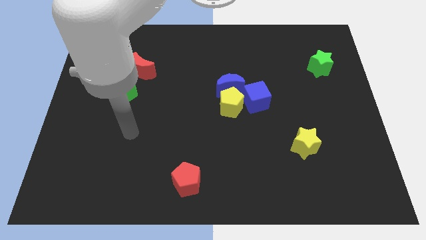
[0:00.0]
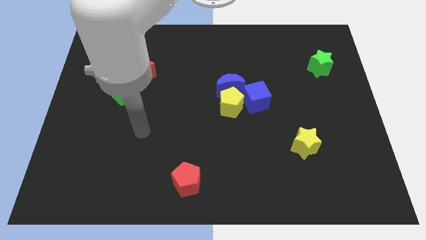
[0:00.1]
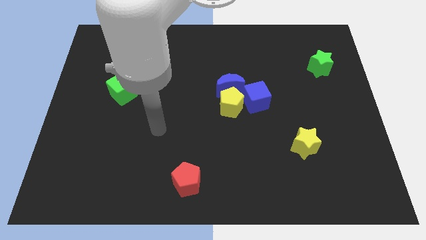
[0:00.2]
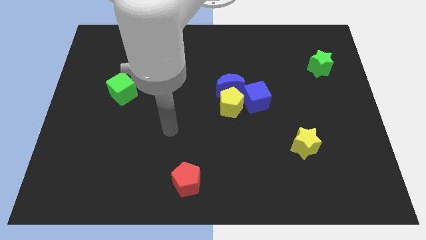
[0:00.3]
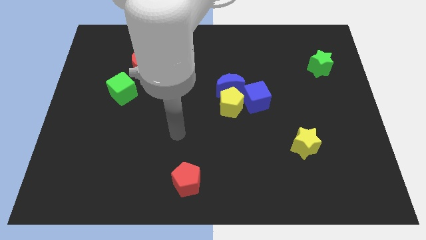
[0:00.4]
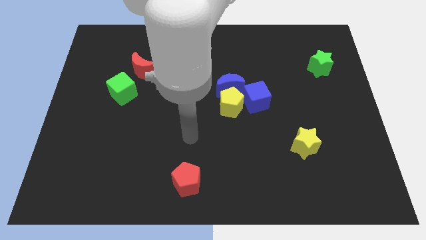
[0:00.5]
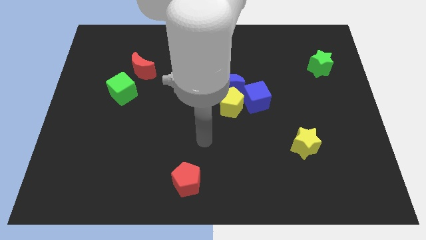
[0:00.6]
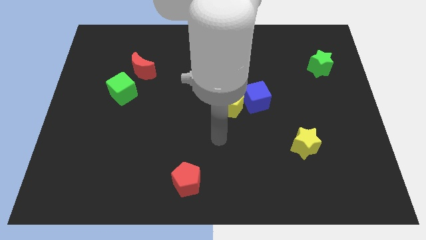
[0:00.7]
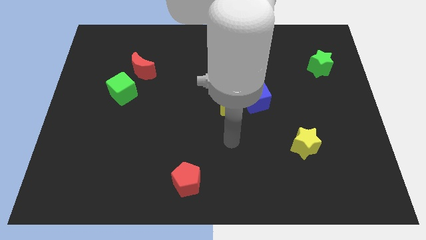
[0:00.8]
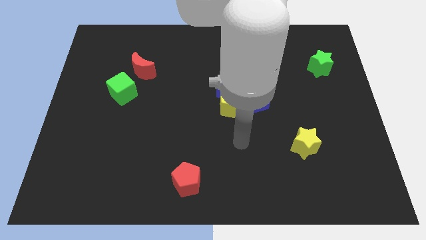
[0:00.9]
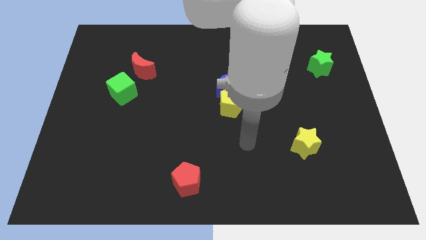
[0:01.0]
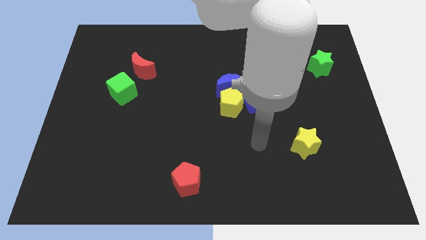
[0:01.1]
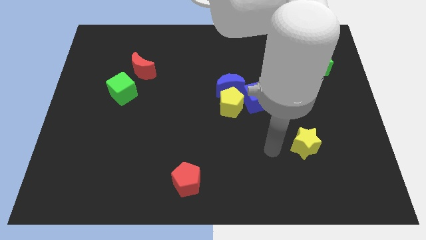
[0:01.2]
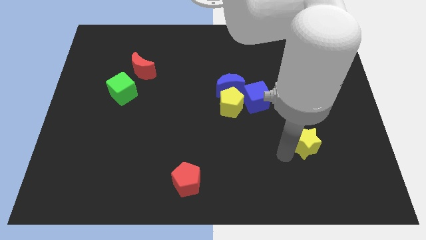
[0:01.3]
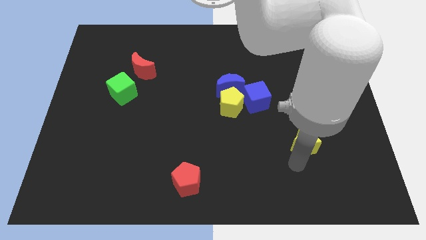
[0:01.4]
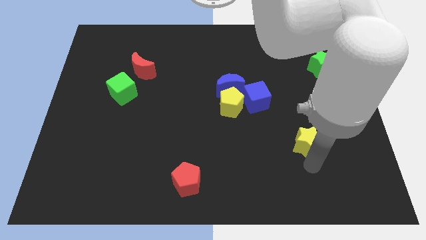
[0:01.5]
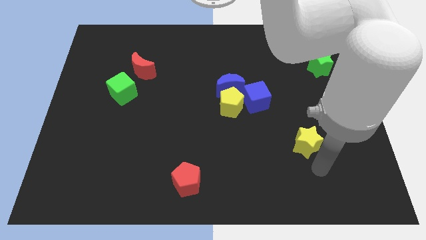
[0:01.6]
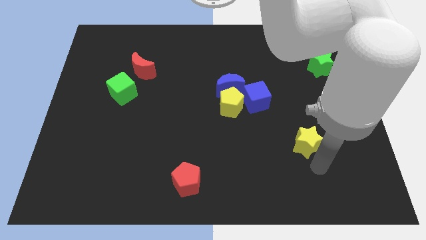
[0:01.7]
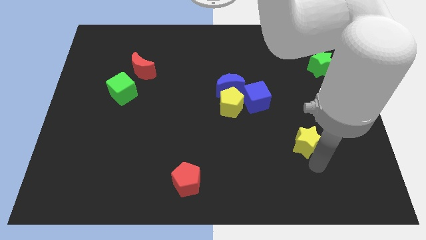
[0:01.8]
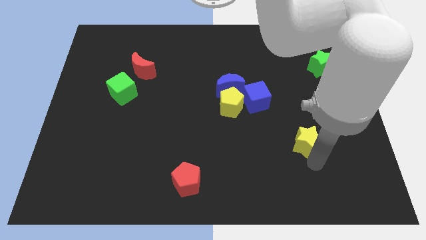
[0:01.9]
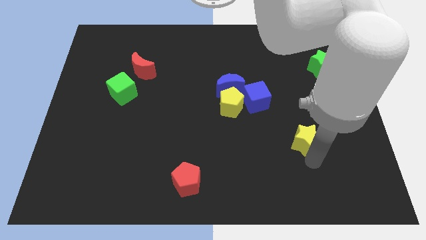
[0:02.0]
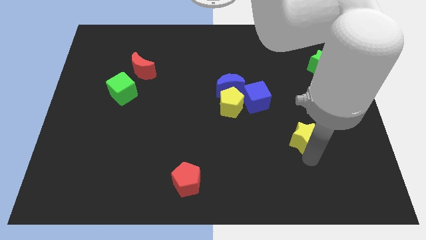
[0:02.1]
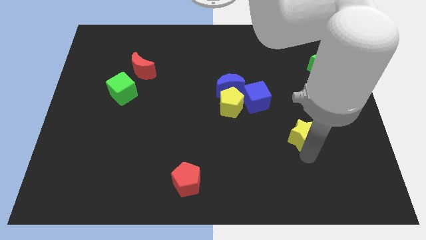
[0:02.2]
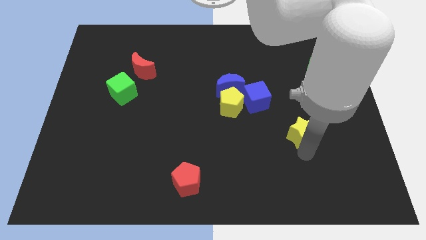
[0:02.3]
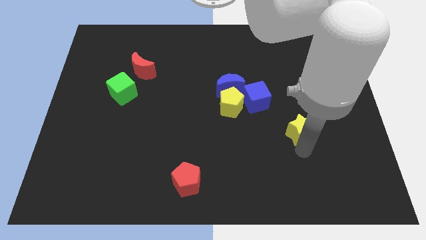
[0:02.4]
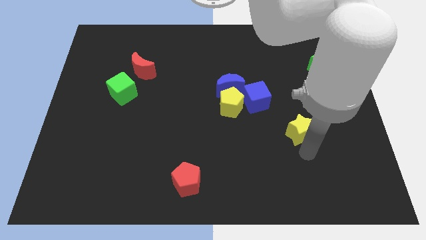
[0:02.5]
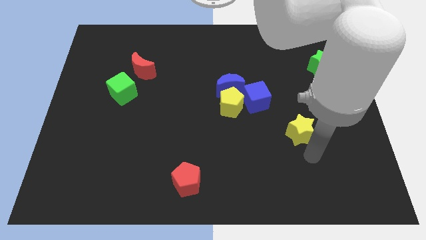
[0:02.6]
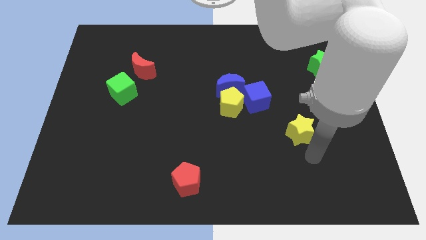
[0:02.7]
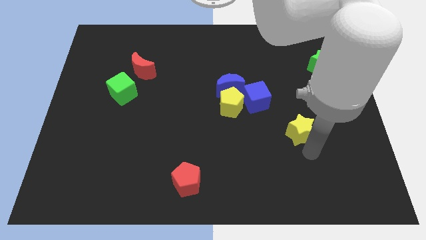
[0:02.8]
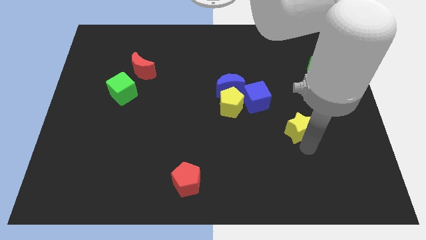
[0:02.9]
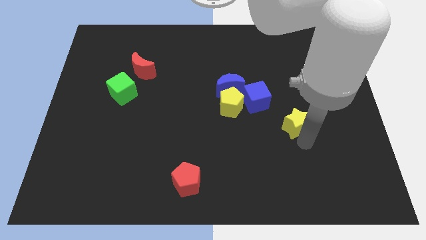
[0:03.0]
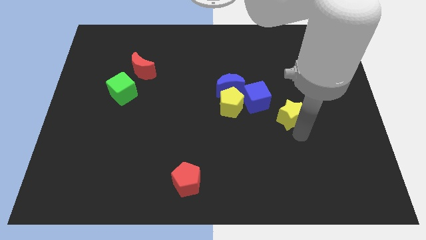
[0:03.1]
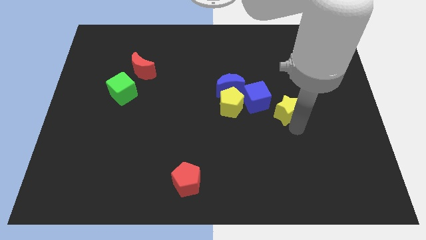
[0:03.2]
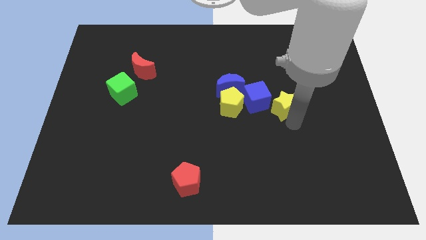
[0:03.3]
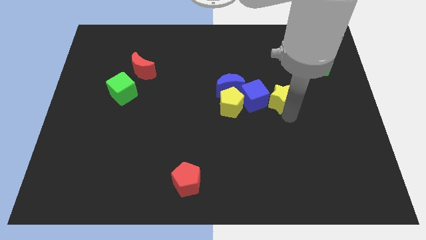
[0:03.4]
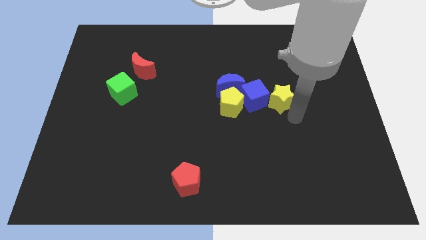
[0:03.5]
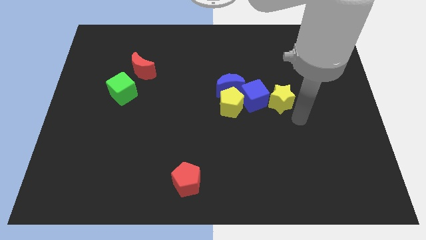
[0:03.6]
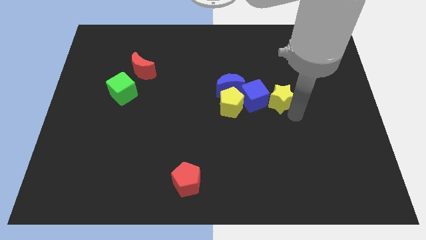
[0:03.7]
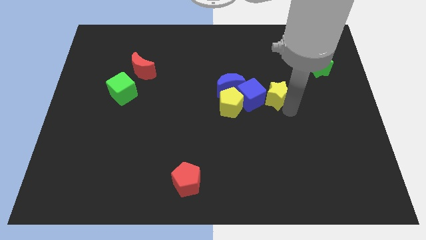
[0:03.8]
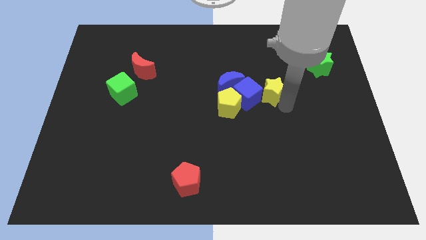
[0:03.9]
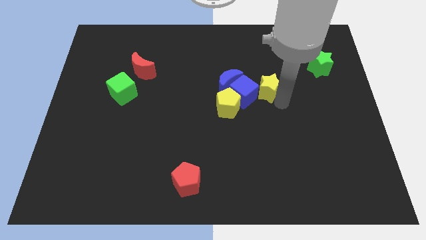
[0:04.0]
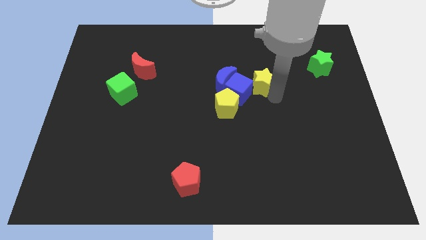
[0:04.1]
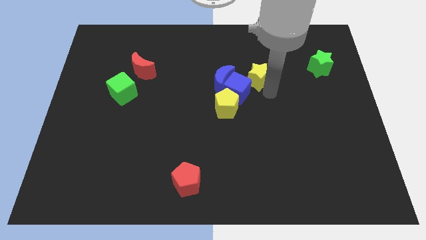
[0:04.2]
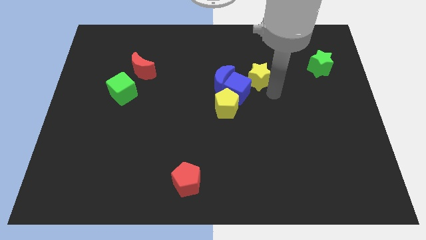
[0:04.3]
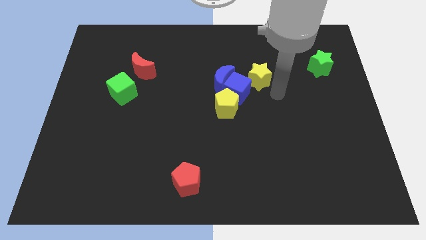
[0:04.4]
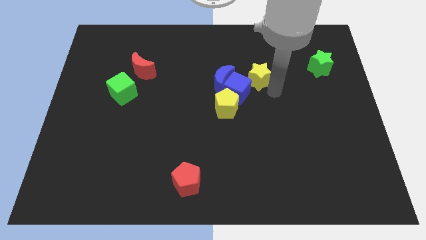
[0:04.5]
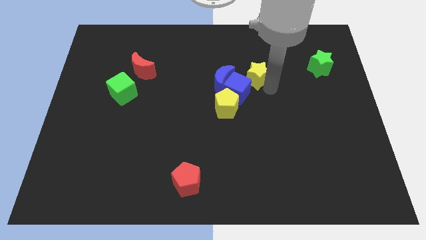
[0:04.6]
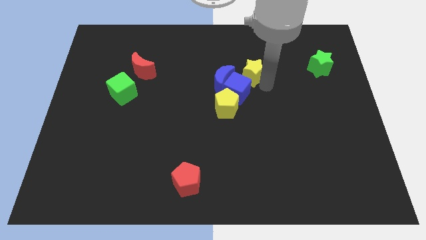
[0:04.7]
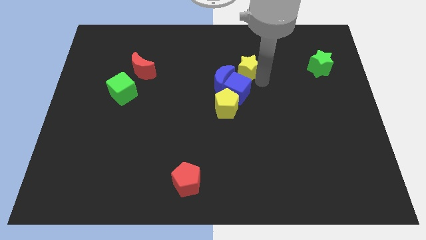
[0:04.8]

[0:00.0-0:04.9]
push the yellow star diagonally up and to the left

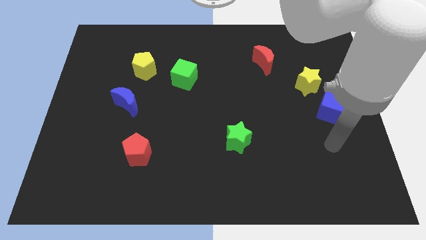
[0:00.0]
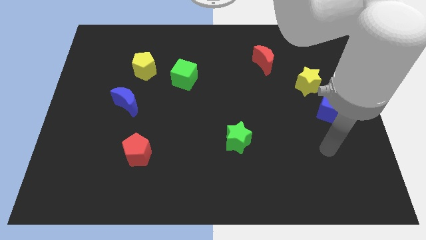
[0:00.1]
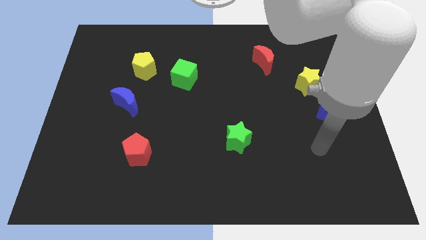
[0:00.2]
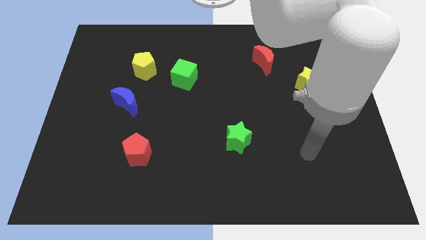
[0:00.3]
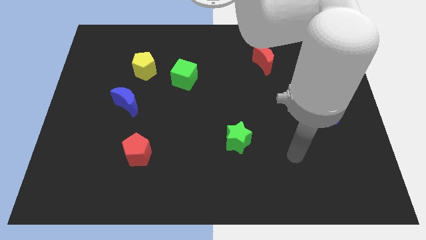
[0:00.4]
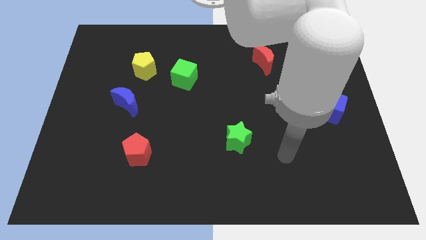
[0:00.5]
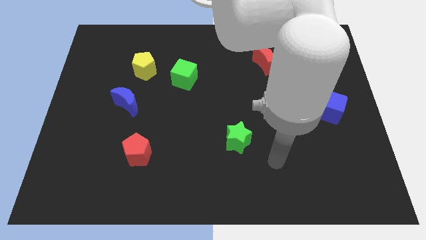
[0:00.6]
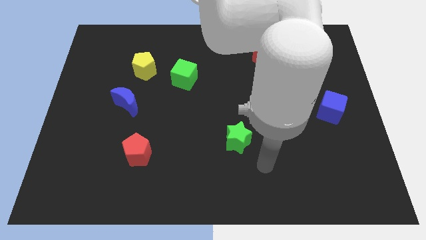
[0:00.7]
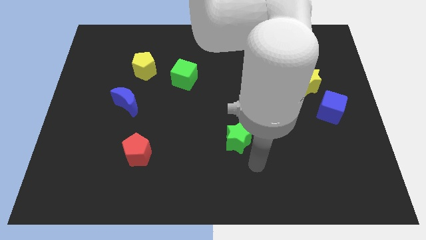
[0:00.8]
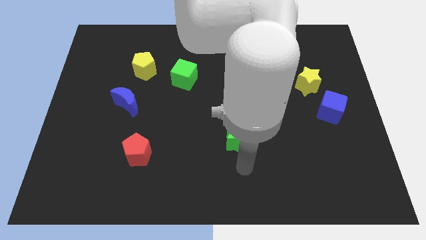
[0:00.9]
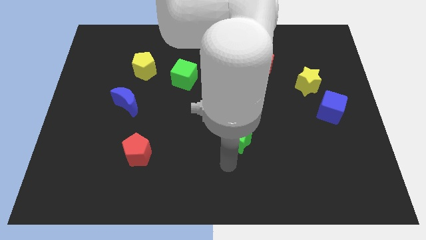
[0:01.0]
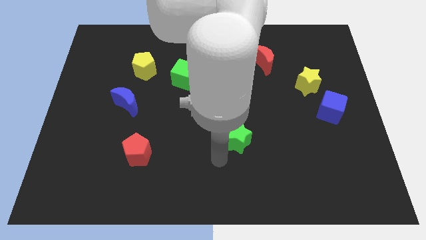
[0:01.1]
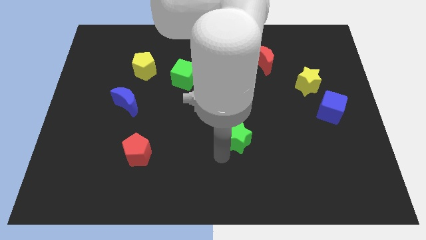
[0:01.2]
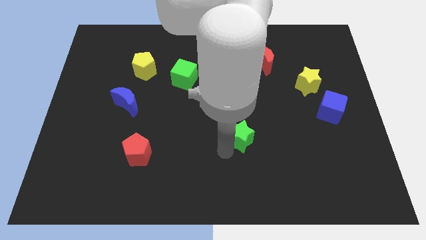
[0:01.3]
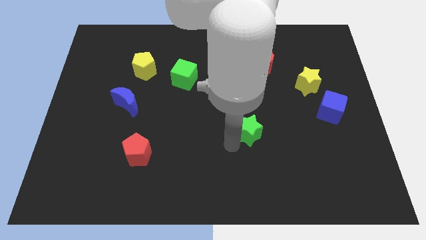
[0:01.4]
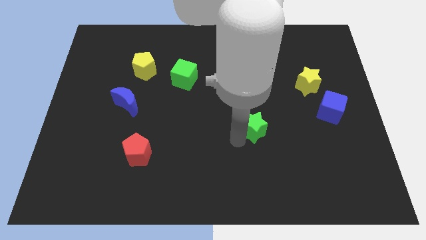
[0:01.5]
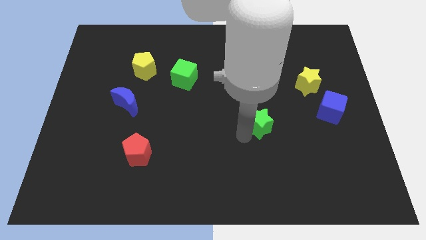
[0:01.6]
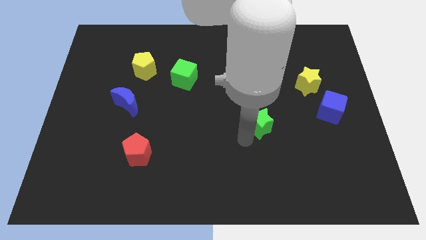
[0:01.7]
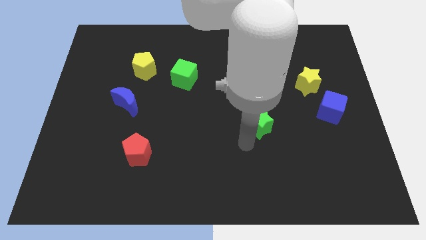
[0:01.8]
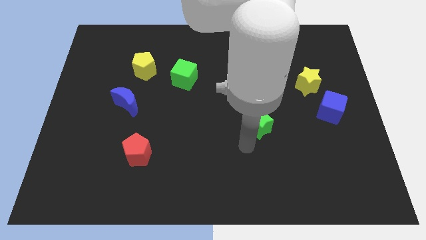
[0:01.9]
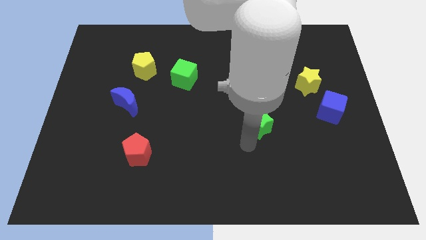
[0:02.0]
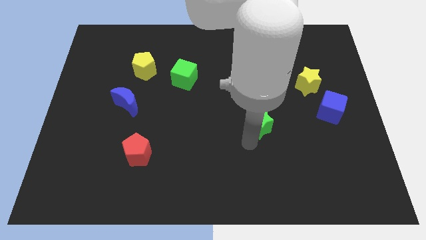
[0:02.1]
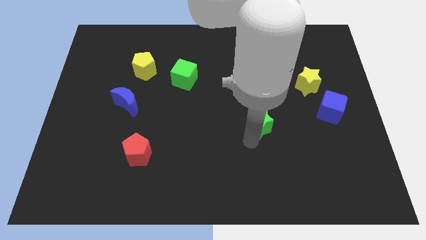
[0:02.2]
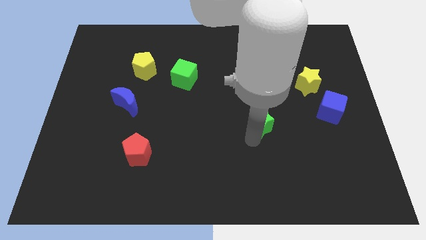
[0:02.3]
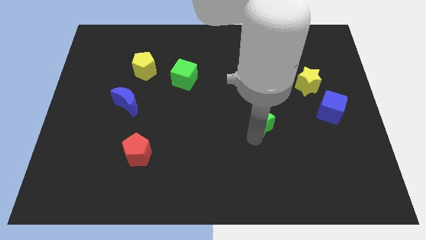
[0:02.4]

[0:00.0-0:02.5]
push the green star a little bit up and right

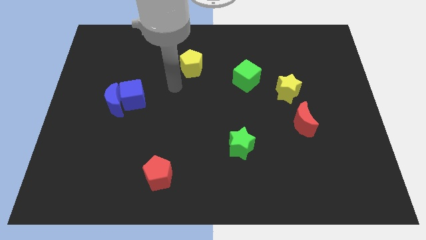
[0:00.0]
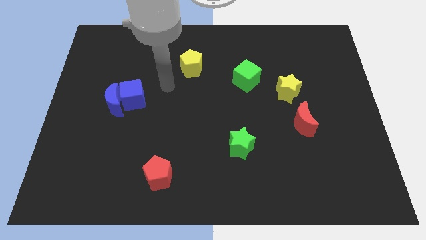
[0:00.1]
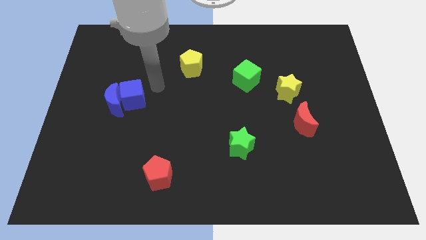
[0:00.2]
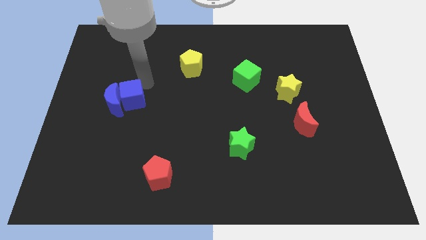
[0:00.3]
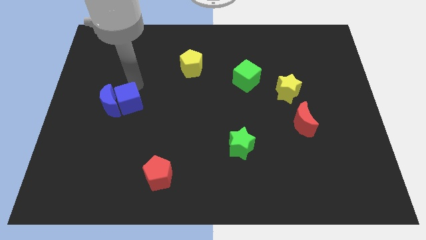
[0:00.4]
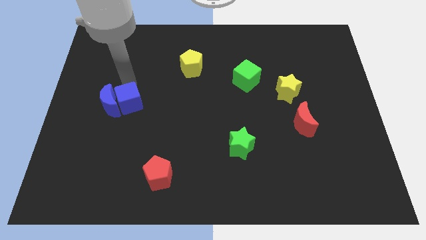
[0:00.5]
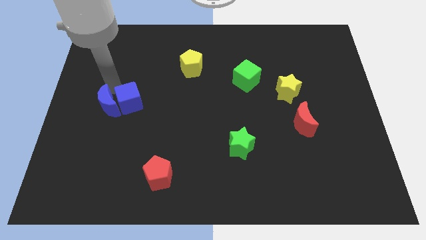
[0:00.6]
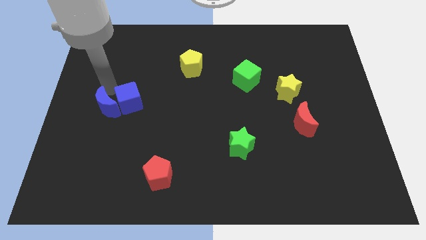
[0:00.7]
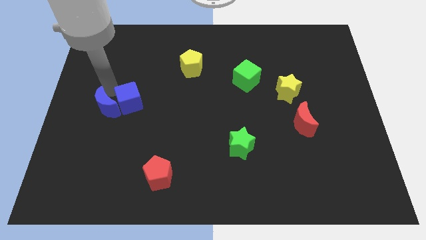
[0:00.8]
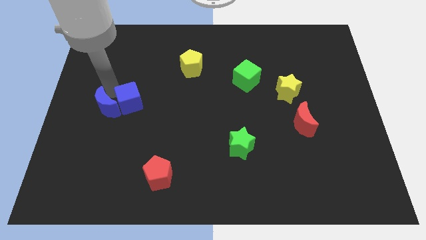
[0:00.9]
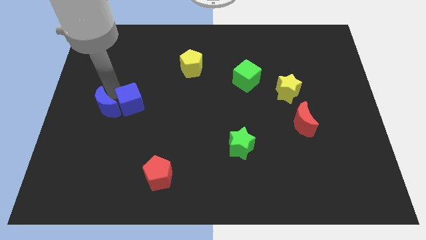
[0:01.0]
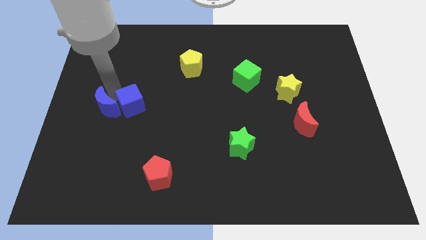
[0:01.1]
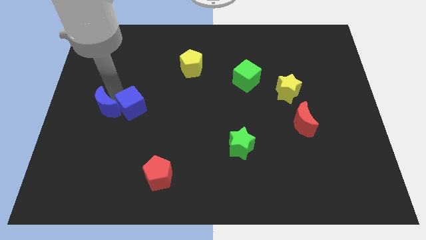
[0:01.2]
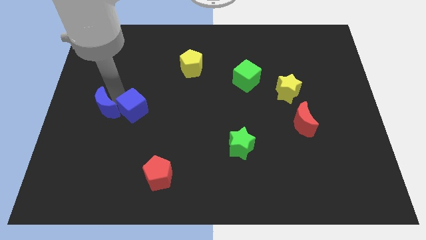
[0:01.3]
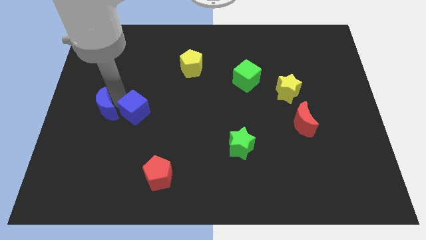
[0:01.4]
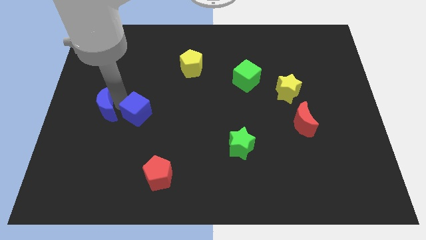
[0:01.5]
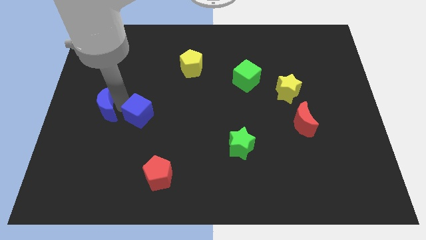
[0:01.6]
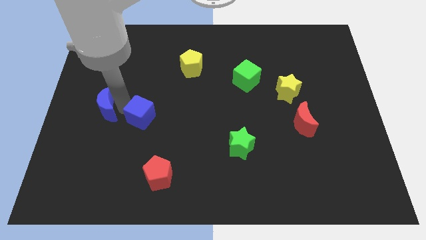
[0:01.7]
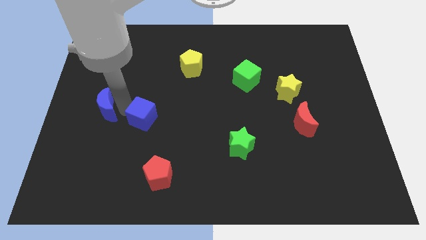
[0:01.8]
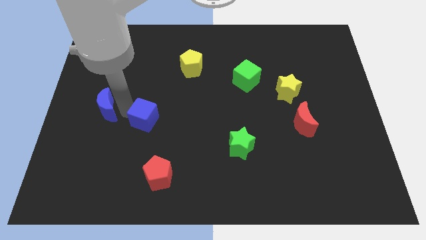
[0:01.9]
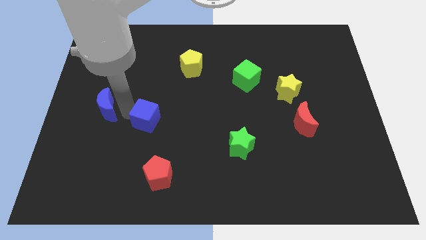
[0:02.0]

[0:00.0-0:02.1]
slightly move the blue cube down and right
